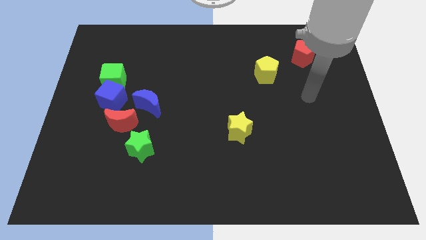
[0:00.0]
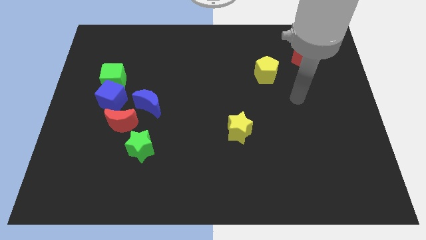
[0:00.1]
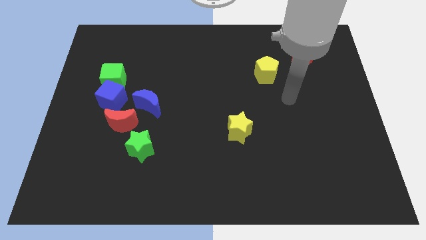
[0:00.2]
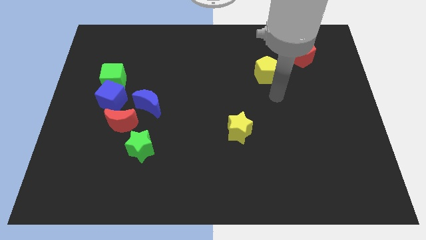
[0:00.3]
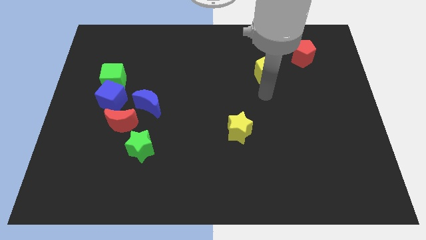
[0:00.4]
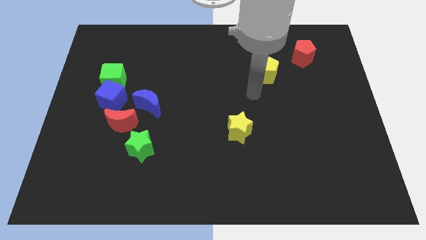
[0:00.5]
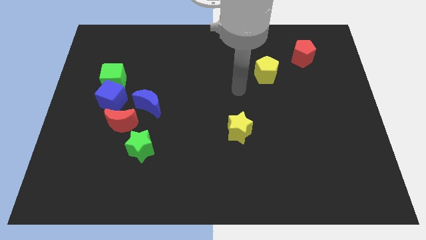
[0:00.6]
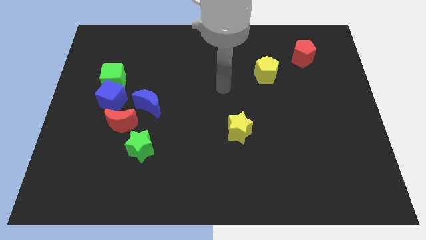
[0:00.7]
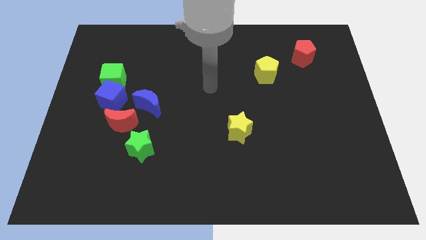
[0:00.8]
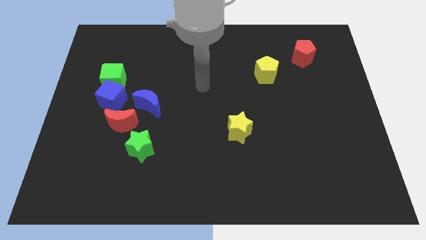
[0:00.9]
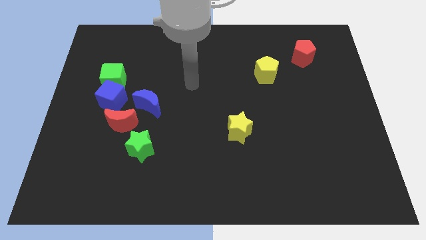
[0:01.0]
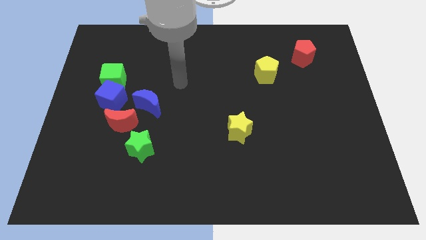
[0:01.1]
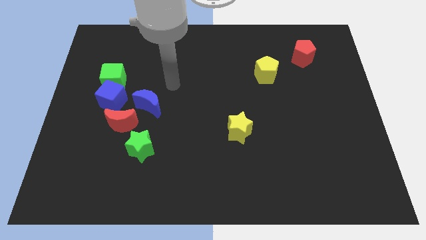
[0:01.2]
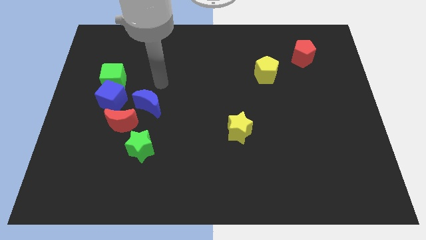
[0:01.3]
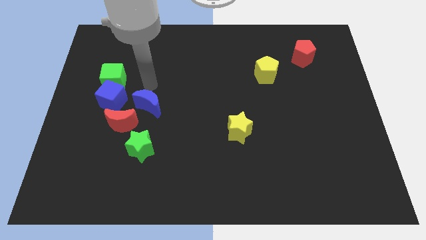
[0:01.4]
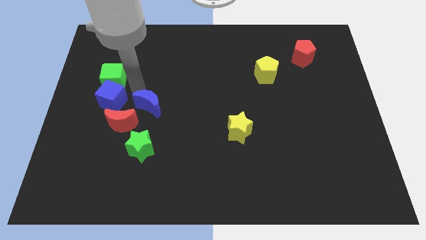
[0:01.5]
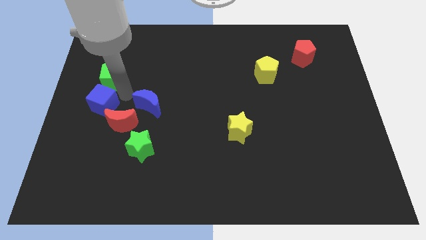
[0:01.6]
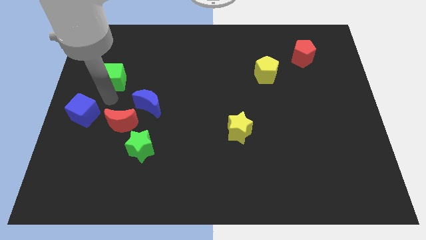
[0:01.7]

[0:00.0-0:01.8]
separate the green cube from the blue cube

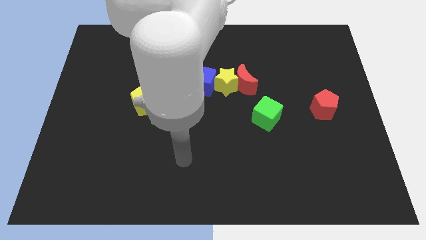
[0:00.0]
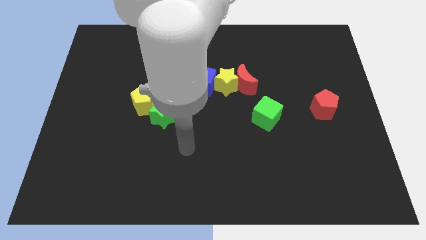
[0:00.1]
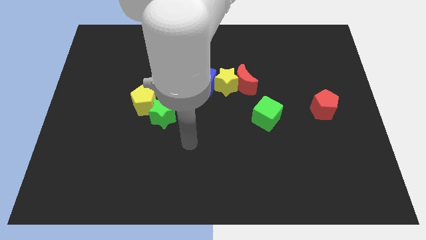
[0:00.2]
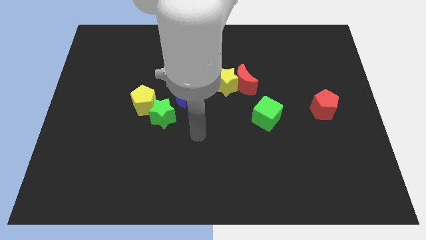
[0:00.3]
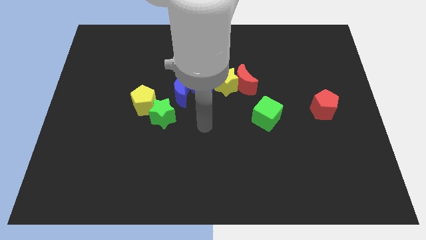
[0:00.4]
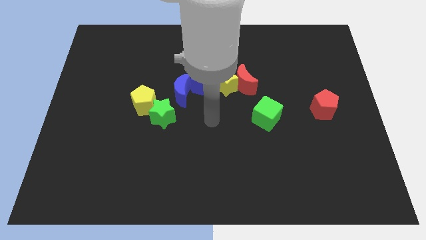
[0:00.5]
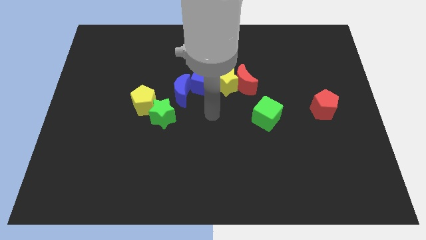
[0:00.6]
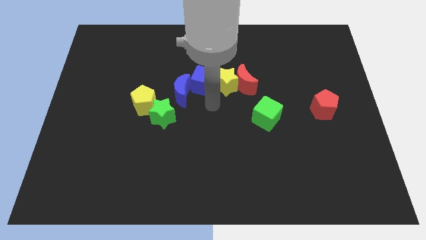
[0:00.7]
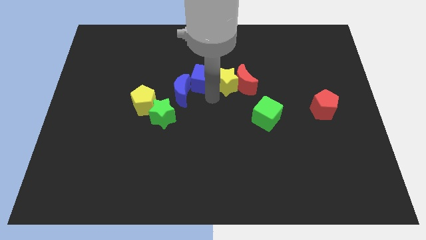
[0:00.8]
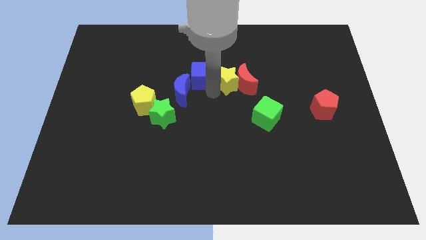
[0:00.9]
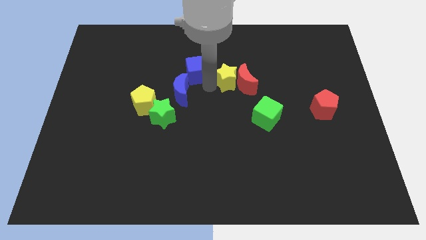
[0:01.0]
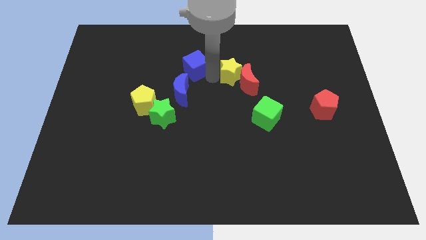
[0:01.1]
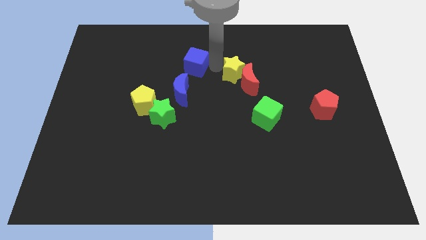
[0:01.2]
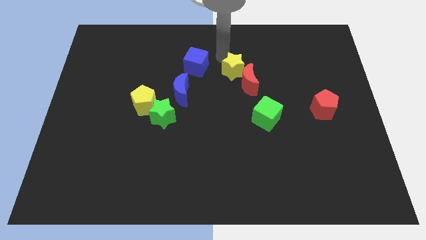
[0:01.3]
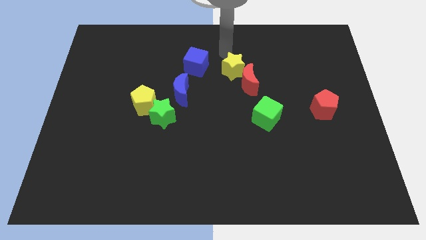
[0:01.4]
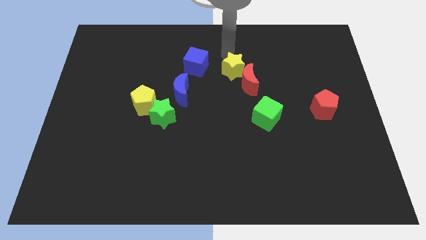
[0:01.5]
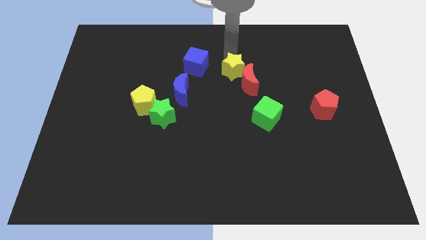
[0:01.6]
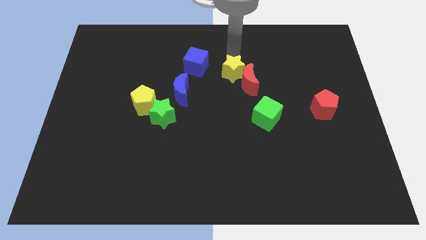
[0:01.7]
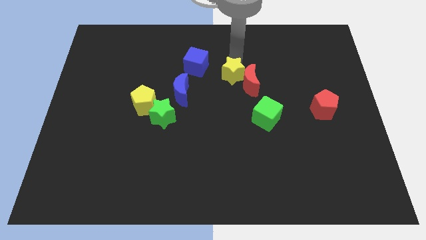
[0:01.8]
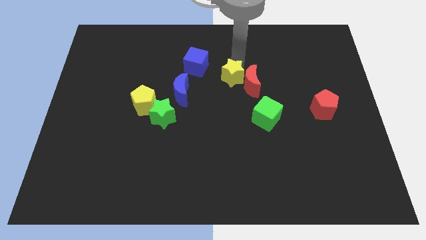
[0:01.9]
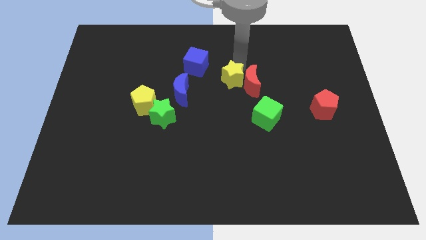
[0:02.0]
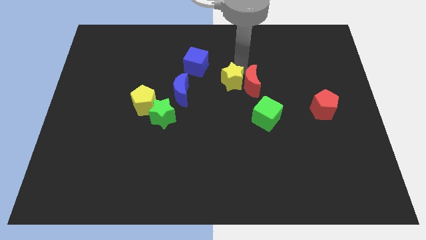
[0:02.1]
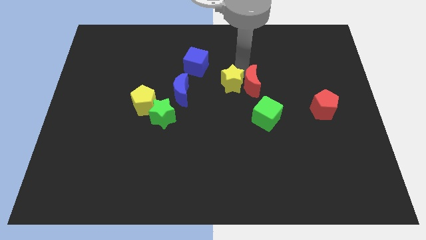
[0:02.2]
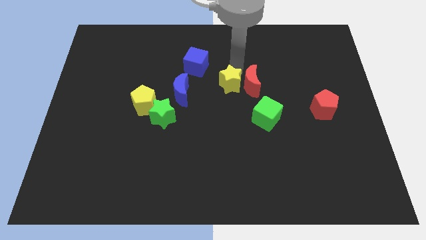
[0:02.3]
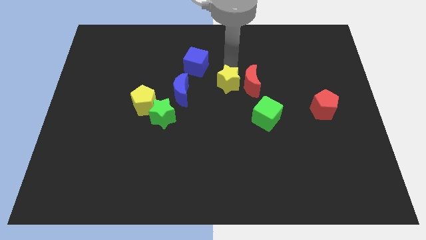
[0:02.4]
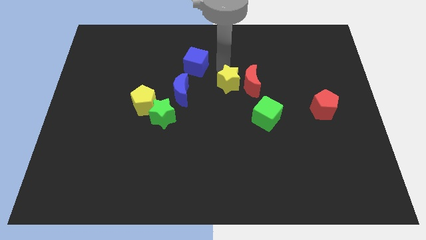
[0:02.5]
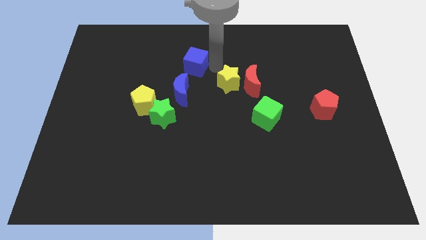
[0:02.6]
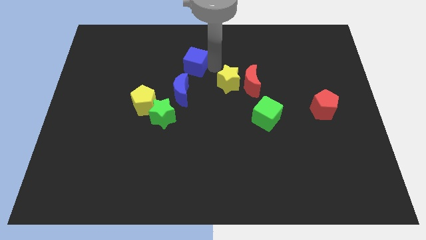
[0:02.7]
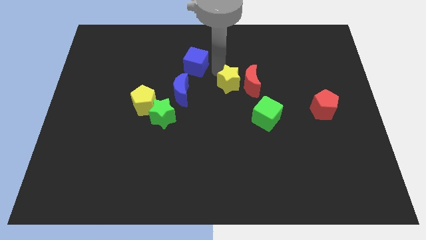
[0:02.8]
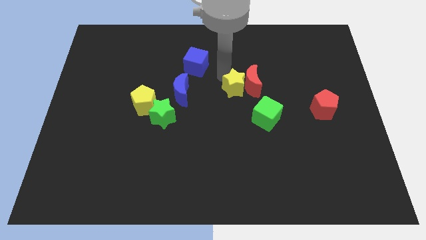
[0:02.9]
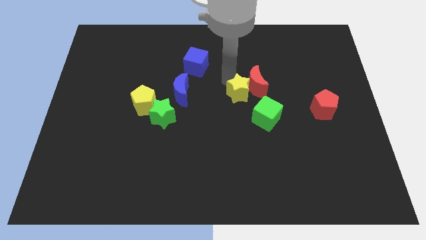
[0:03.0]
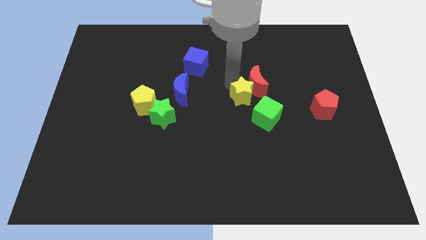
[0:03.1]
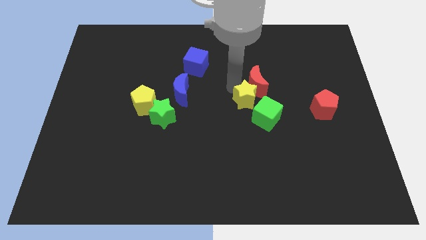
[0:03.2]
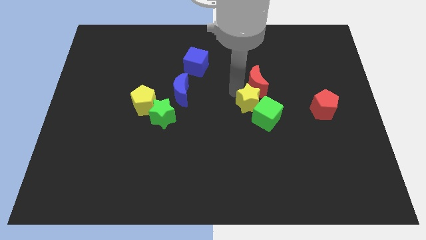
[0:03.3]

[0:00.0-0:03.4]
separate the yellow star from the red moon and blue cube

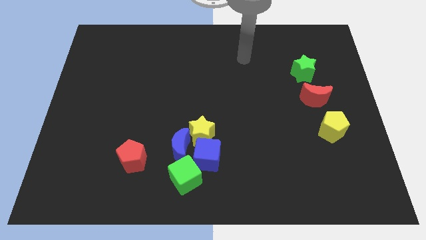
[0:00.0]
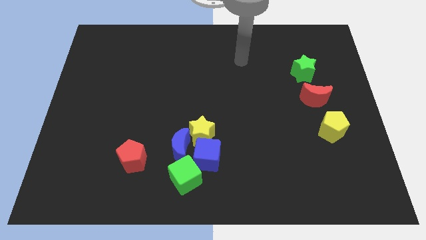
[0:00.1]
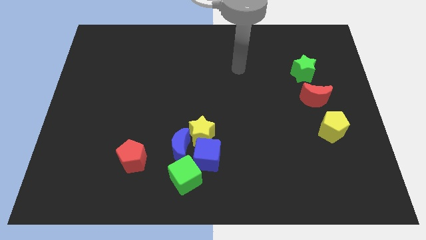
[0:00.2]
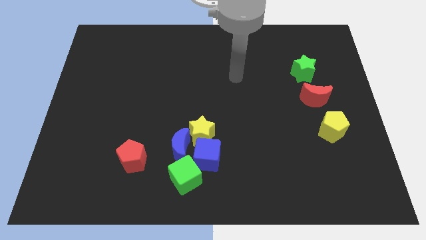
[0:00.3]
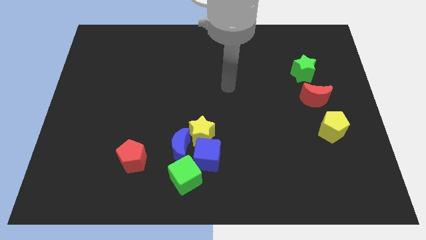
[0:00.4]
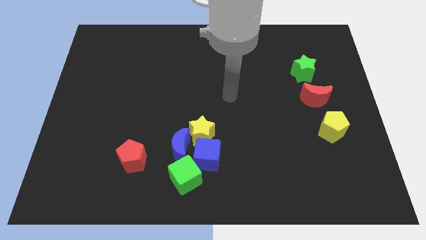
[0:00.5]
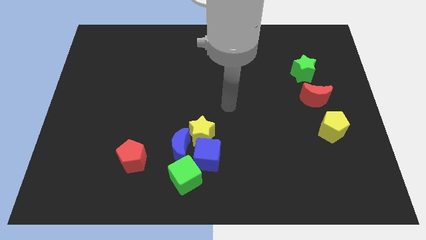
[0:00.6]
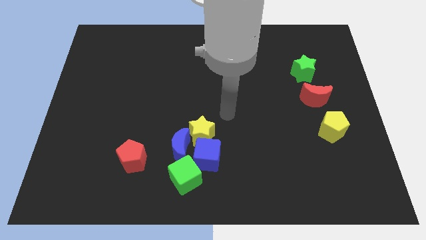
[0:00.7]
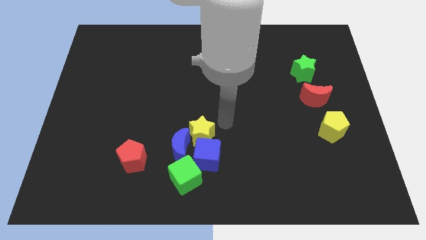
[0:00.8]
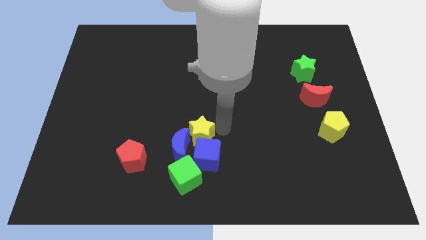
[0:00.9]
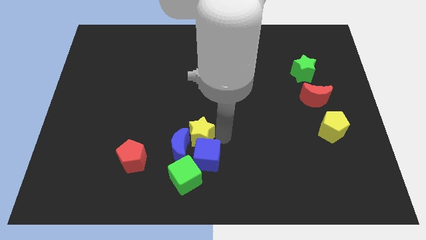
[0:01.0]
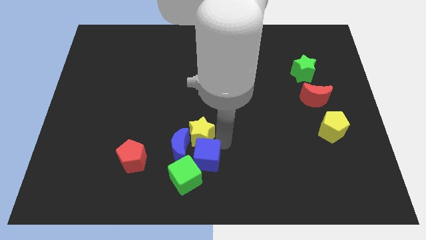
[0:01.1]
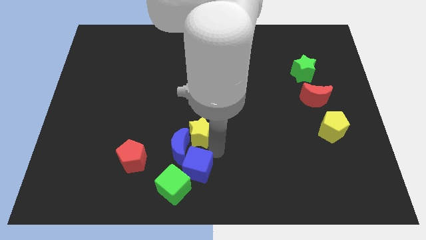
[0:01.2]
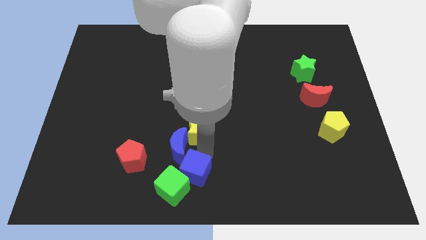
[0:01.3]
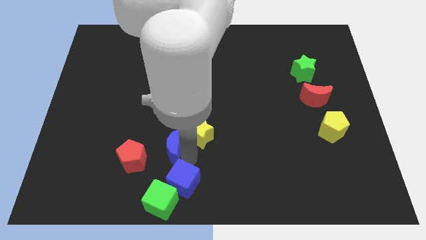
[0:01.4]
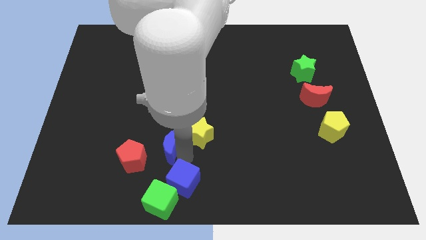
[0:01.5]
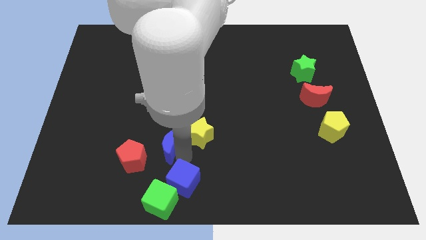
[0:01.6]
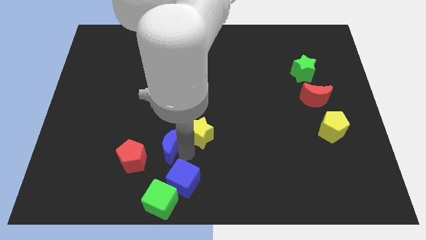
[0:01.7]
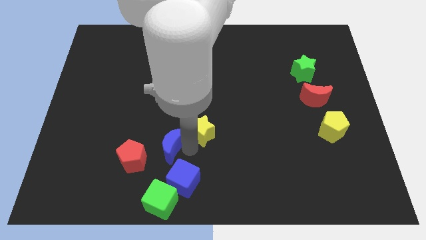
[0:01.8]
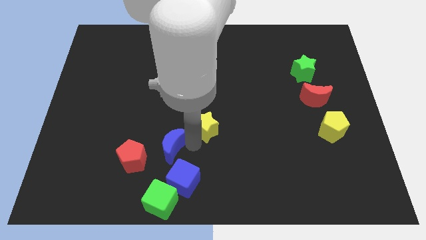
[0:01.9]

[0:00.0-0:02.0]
move the yellow star away from the blue moon and blue cube

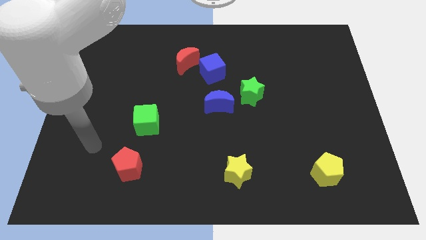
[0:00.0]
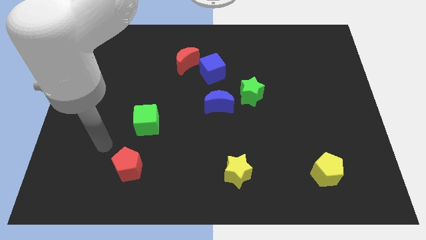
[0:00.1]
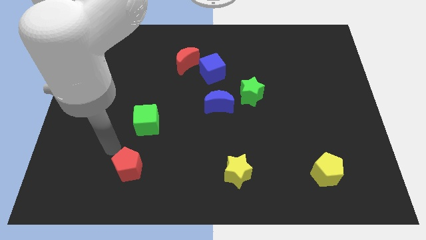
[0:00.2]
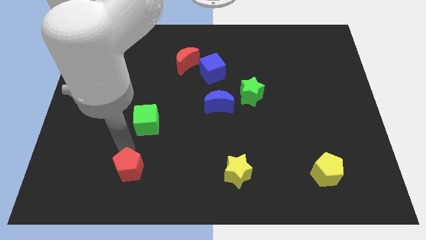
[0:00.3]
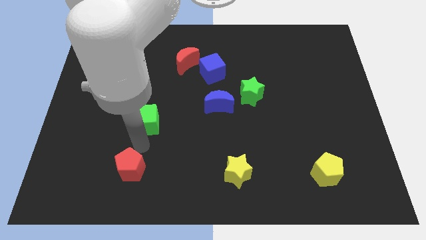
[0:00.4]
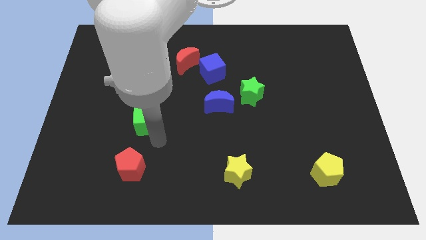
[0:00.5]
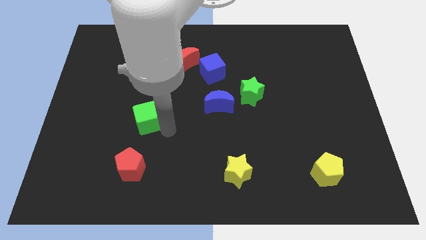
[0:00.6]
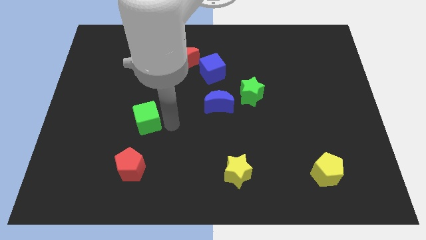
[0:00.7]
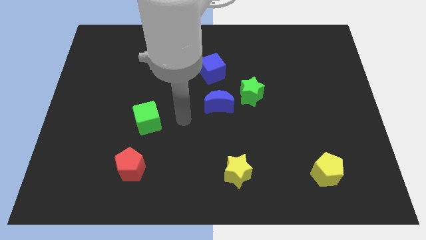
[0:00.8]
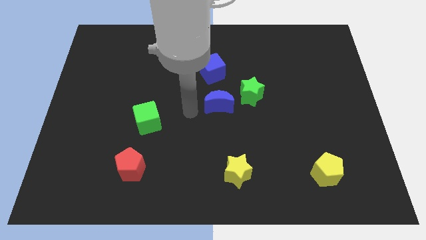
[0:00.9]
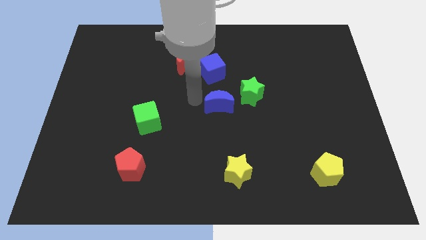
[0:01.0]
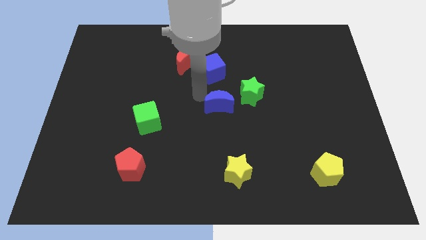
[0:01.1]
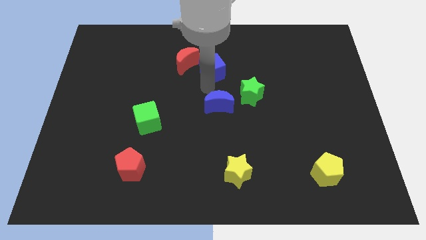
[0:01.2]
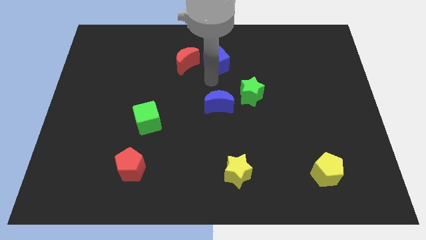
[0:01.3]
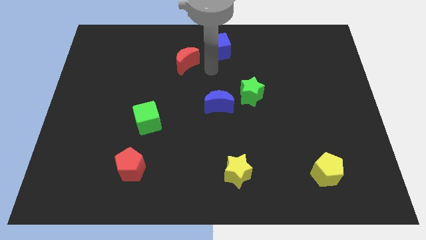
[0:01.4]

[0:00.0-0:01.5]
move the red moon away from the blue cube

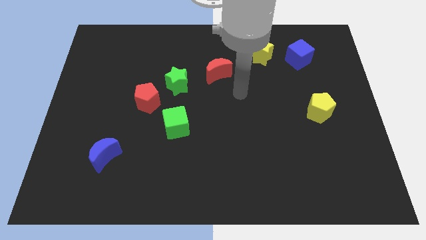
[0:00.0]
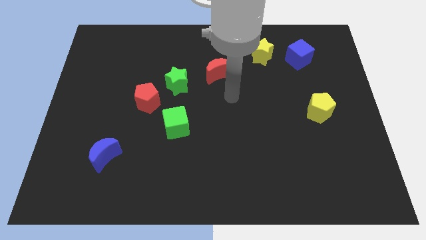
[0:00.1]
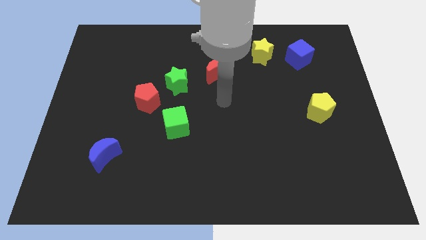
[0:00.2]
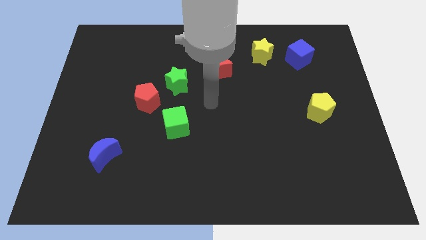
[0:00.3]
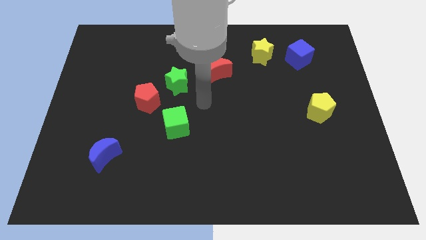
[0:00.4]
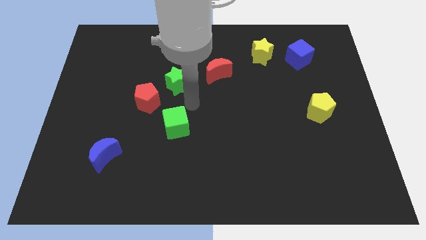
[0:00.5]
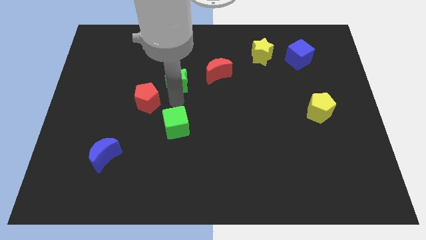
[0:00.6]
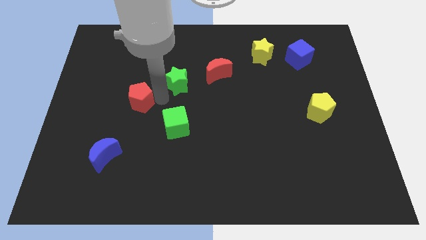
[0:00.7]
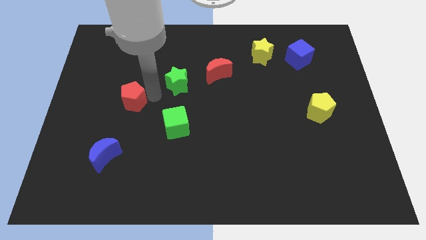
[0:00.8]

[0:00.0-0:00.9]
move the green star away from the red pentagon
